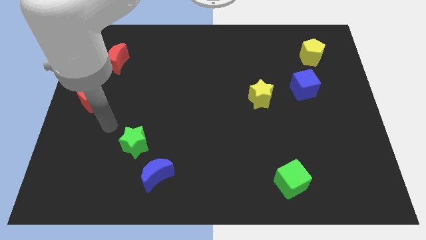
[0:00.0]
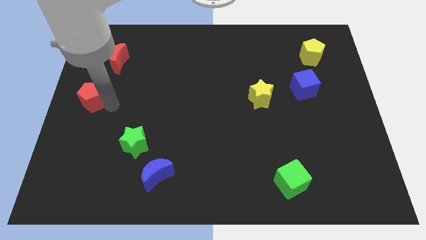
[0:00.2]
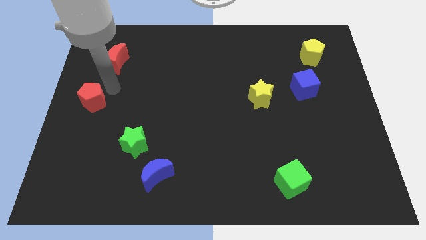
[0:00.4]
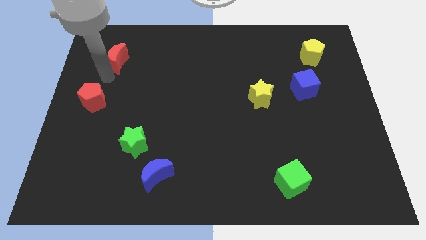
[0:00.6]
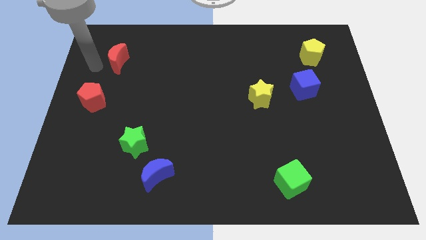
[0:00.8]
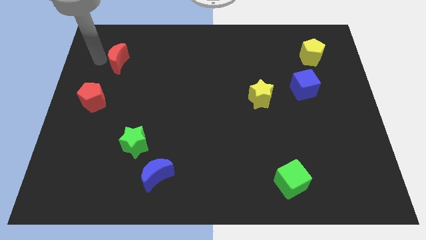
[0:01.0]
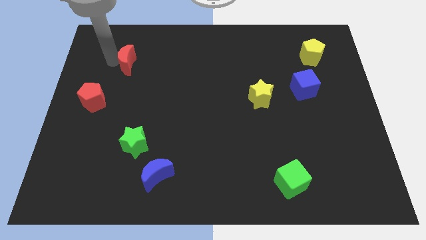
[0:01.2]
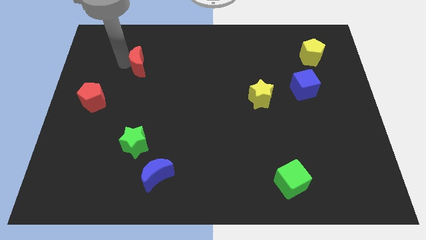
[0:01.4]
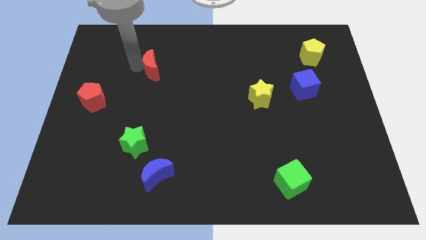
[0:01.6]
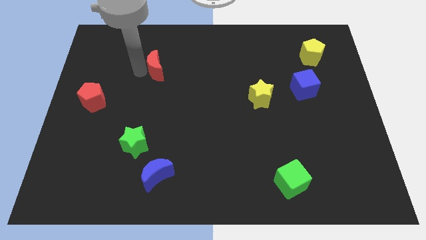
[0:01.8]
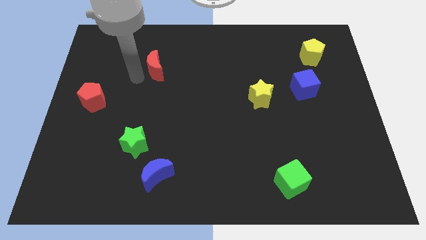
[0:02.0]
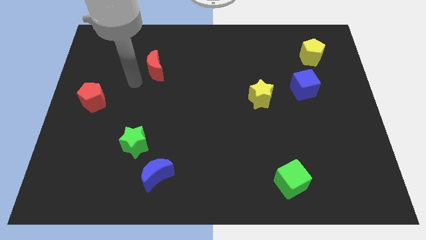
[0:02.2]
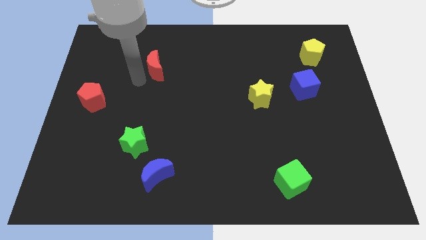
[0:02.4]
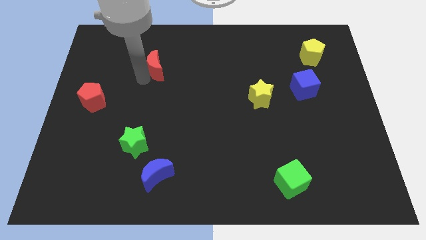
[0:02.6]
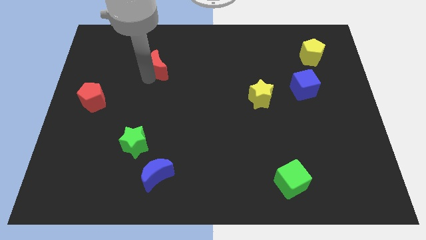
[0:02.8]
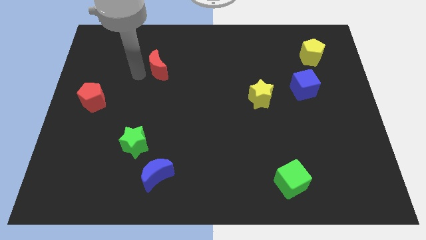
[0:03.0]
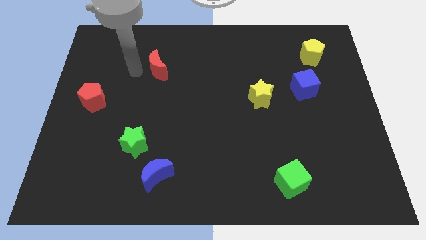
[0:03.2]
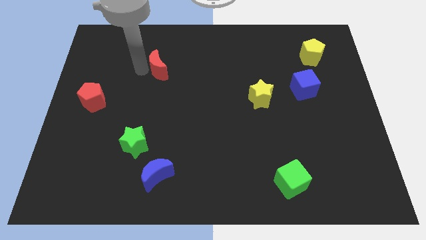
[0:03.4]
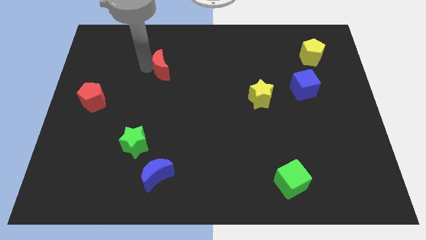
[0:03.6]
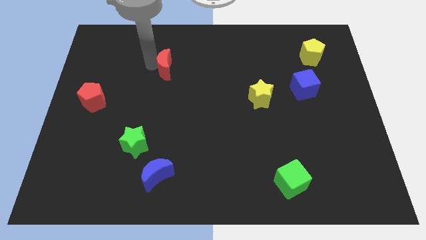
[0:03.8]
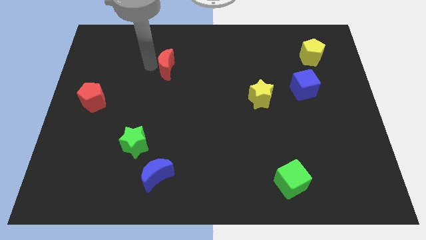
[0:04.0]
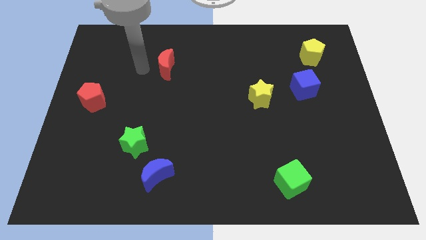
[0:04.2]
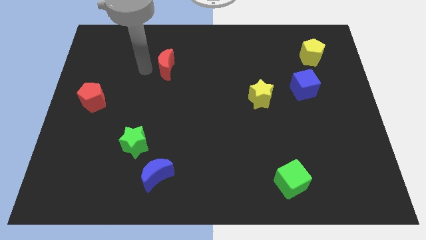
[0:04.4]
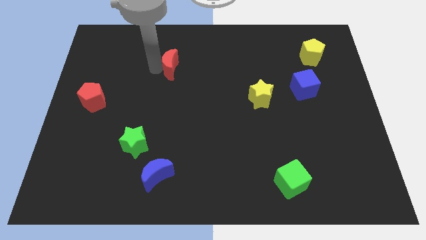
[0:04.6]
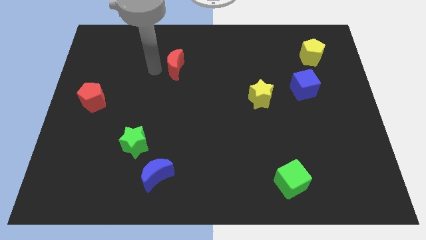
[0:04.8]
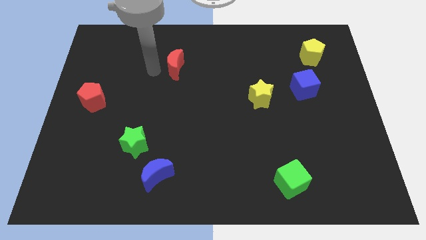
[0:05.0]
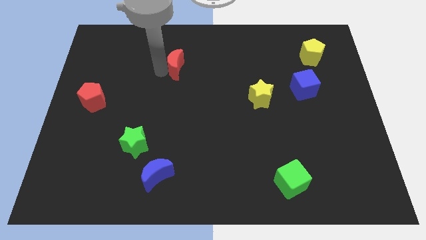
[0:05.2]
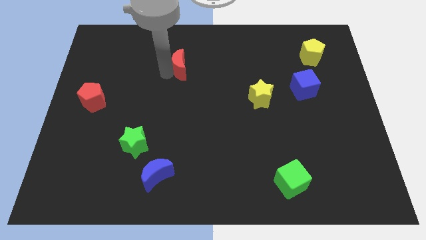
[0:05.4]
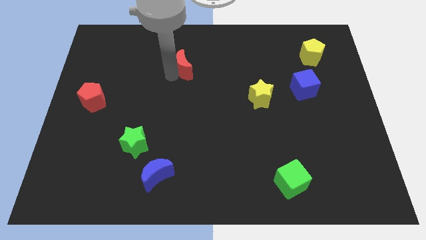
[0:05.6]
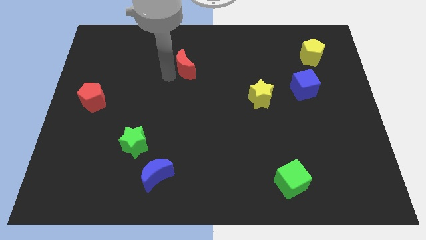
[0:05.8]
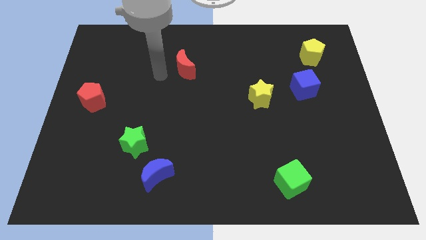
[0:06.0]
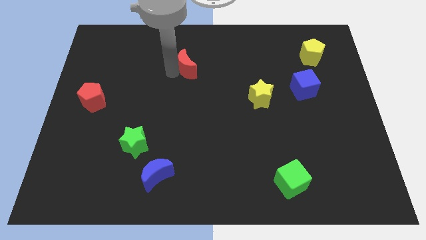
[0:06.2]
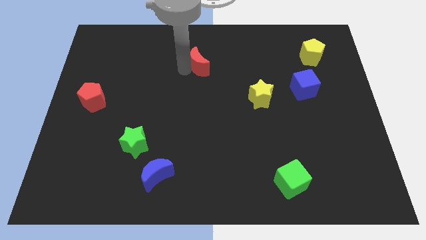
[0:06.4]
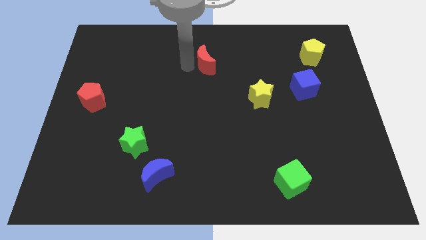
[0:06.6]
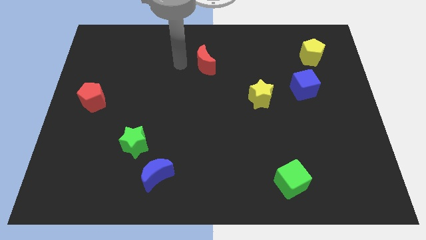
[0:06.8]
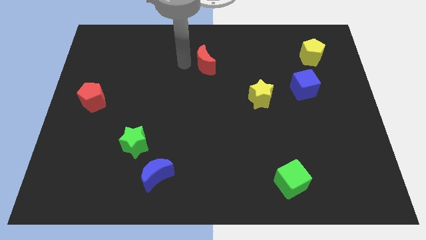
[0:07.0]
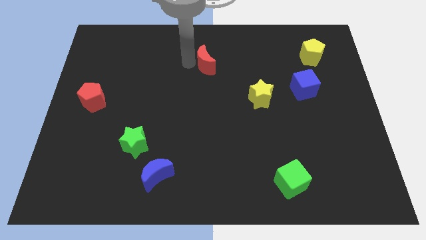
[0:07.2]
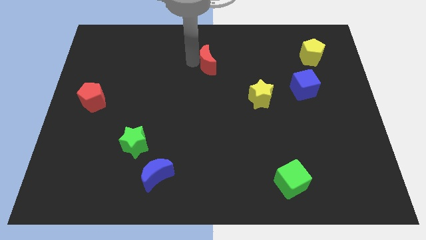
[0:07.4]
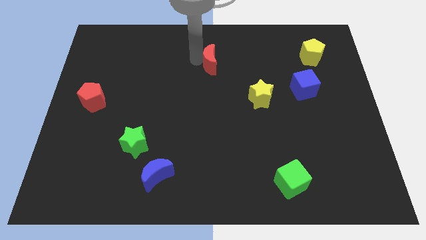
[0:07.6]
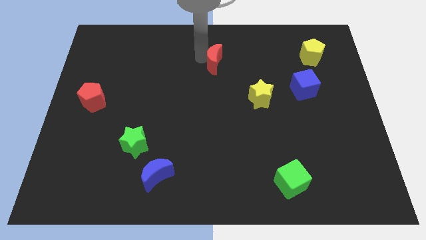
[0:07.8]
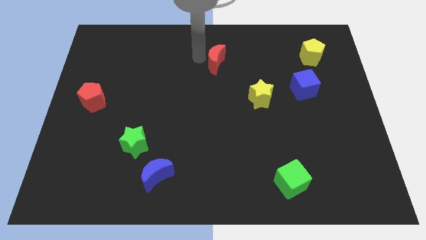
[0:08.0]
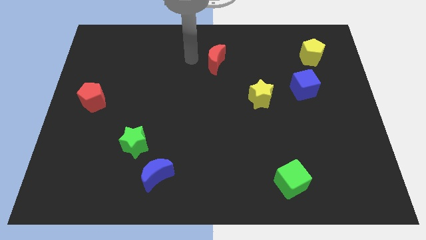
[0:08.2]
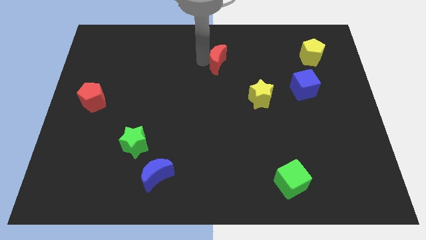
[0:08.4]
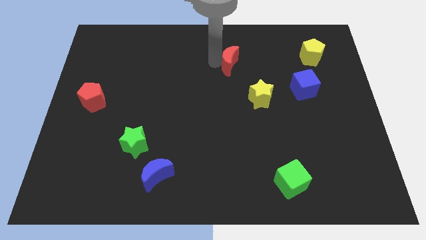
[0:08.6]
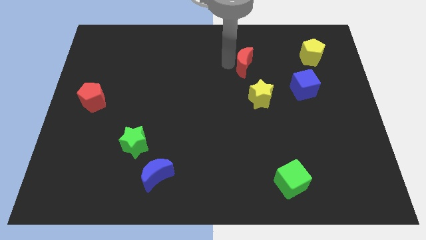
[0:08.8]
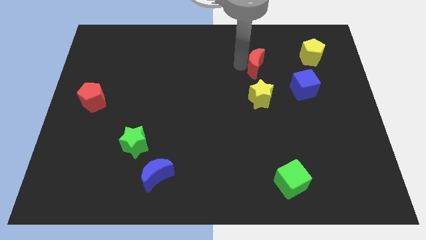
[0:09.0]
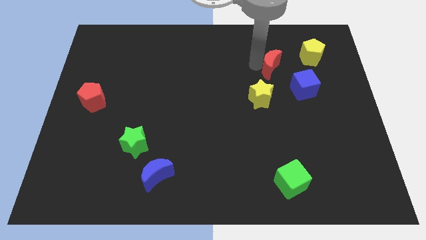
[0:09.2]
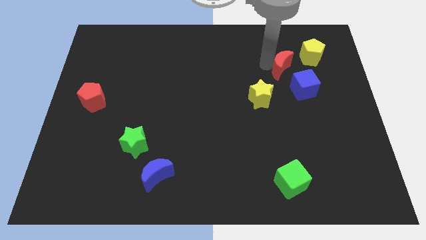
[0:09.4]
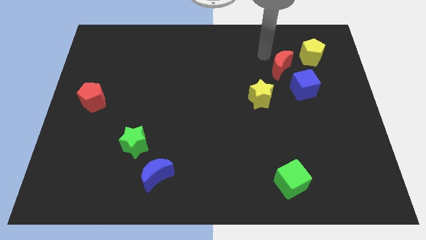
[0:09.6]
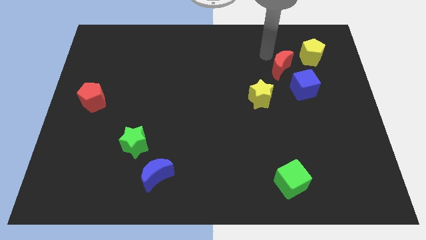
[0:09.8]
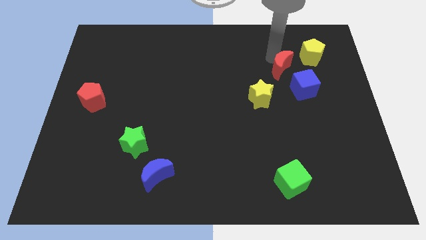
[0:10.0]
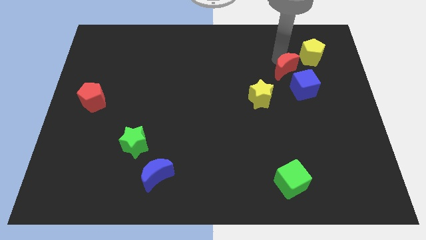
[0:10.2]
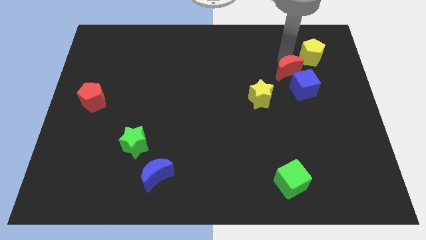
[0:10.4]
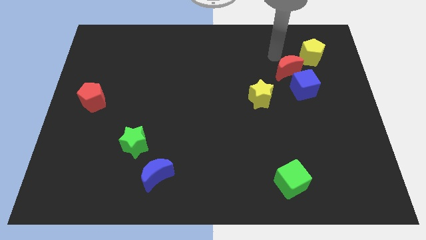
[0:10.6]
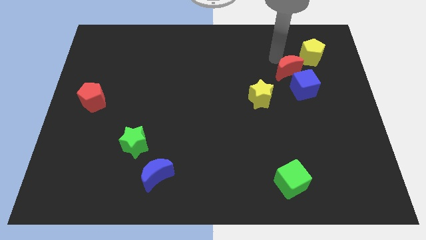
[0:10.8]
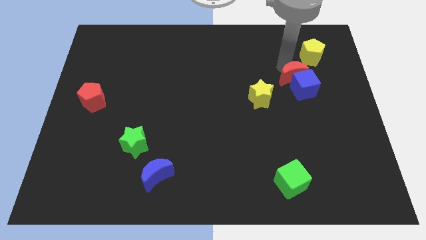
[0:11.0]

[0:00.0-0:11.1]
slide the red moon close to the blue cube

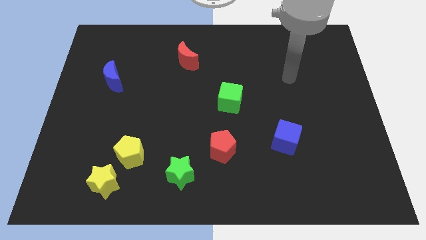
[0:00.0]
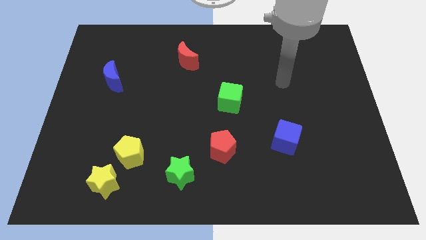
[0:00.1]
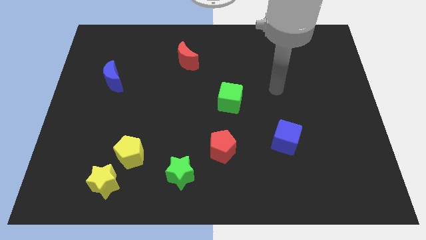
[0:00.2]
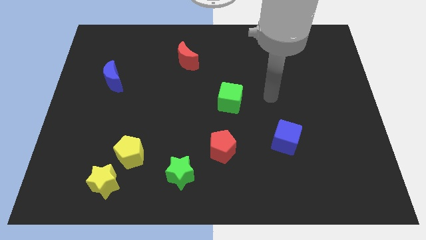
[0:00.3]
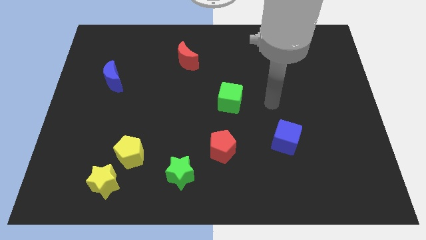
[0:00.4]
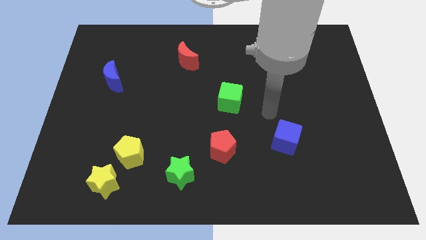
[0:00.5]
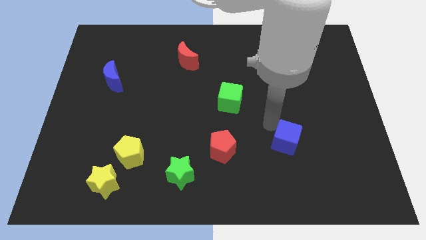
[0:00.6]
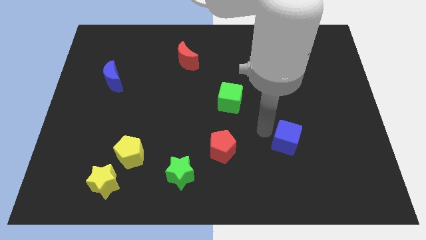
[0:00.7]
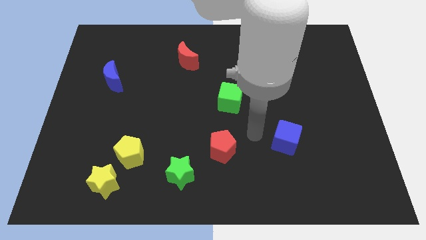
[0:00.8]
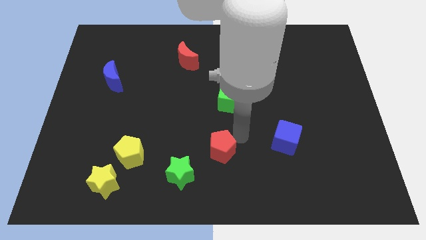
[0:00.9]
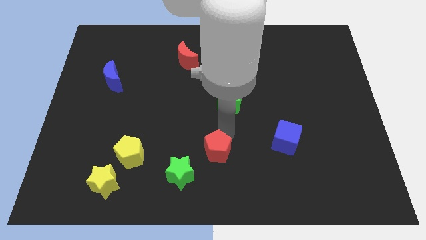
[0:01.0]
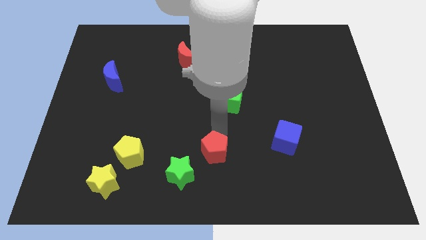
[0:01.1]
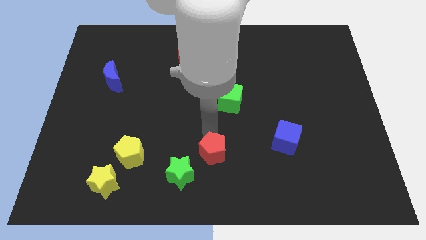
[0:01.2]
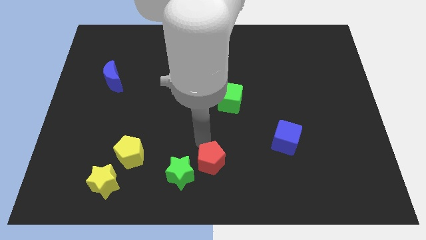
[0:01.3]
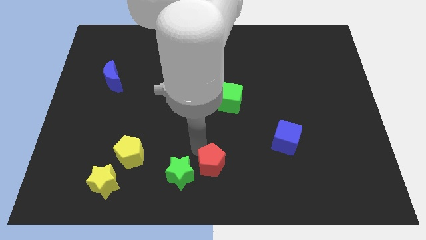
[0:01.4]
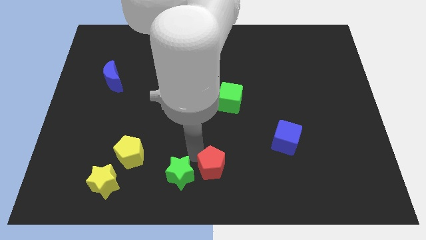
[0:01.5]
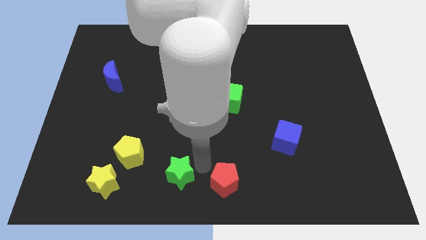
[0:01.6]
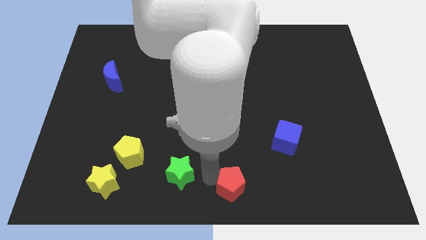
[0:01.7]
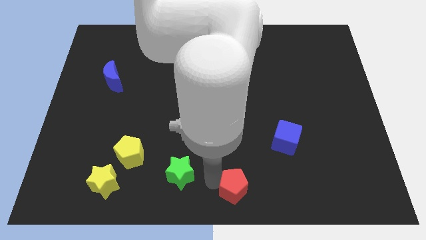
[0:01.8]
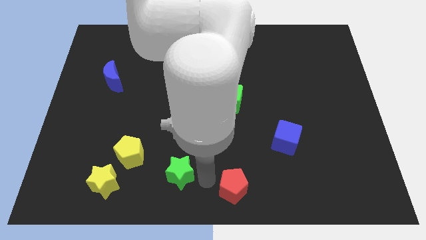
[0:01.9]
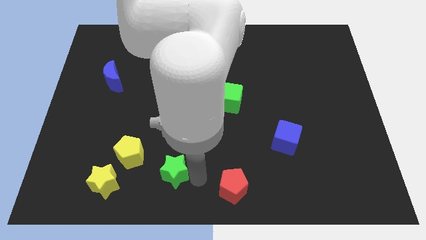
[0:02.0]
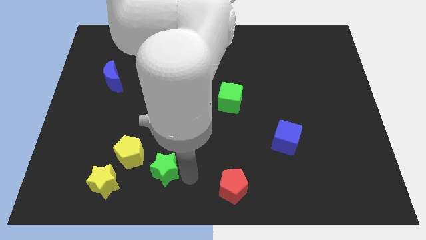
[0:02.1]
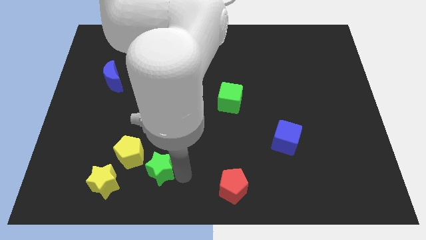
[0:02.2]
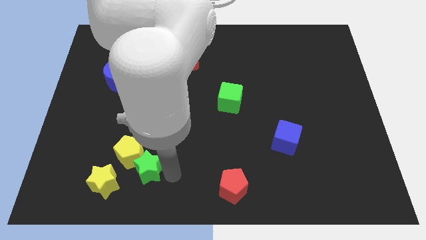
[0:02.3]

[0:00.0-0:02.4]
push the green star to the yellow pentagon

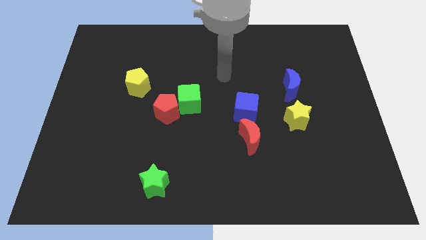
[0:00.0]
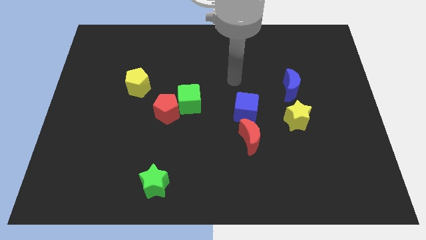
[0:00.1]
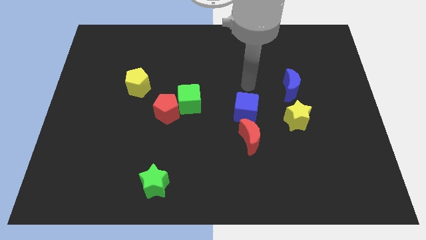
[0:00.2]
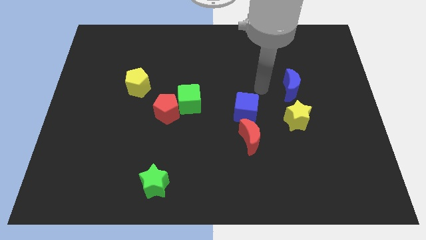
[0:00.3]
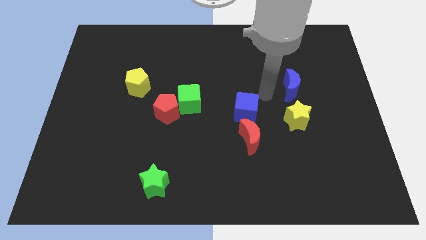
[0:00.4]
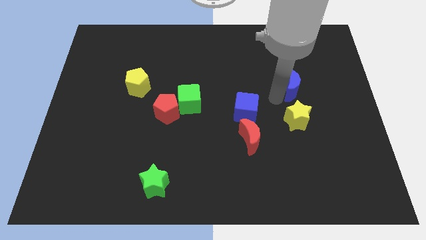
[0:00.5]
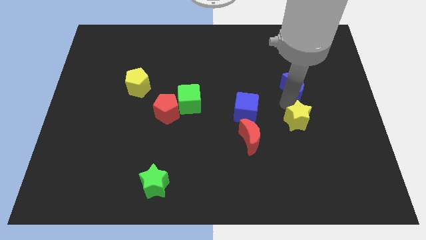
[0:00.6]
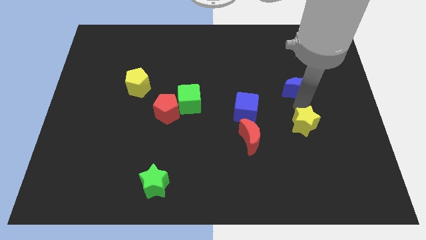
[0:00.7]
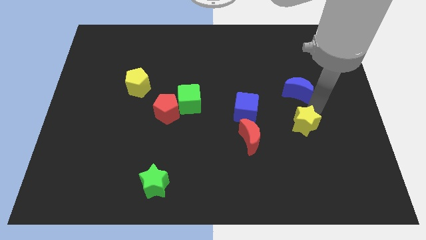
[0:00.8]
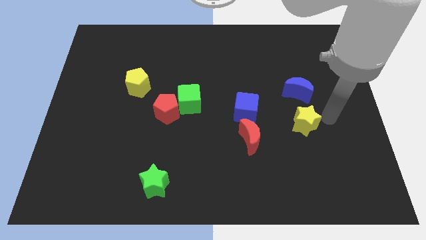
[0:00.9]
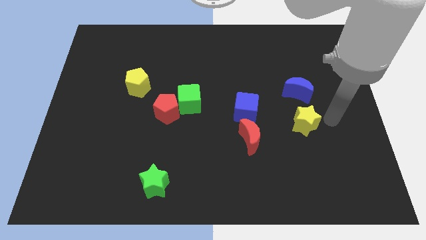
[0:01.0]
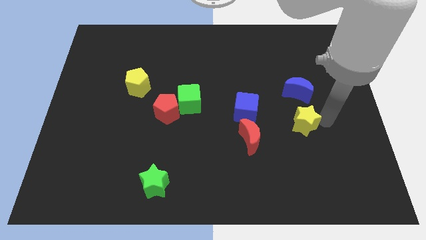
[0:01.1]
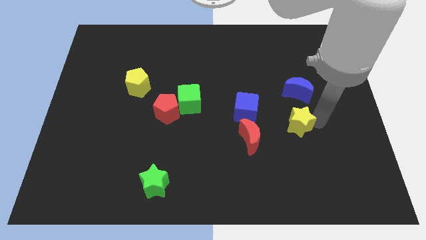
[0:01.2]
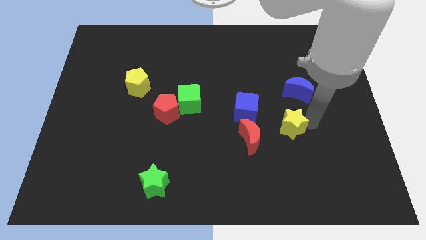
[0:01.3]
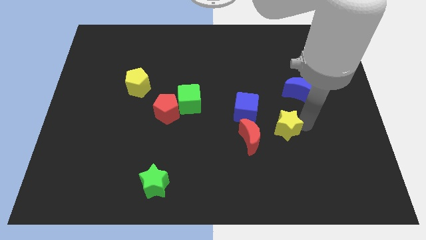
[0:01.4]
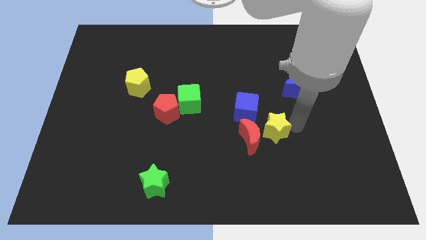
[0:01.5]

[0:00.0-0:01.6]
push the yellow star to the red moon
